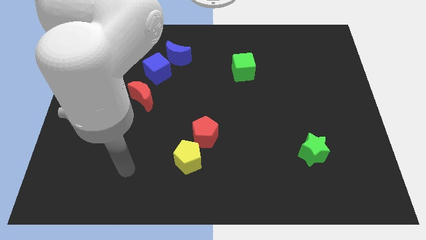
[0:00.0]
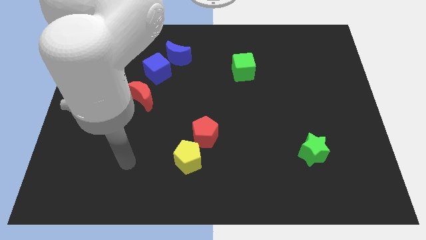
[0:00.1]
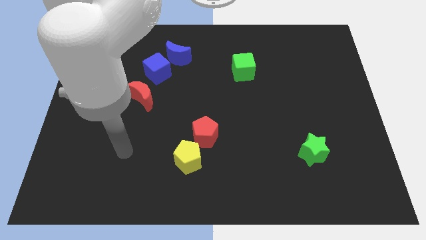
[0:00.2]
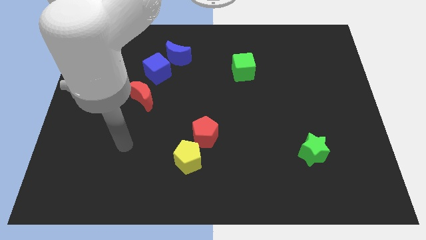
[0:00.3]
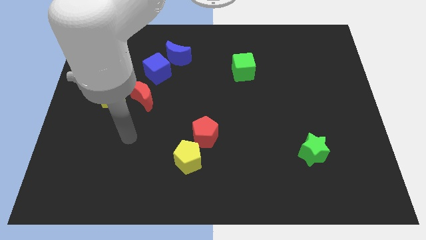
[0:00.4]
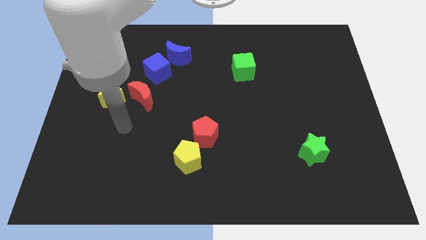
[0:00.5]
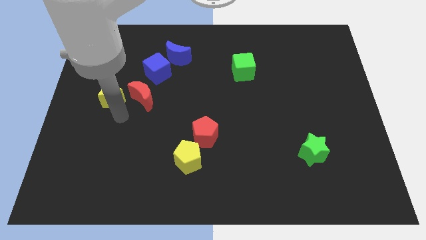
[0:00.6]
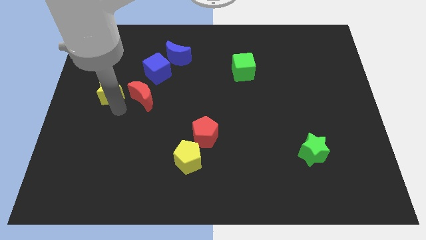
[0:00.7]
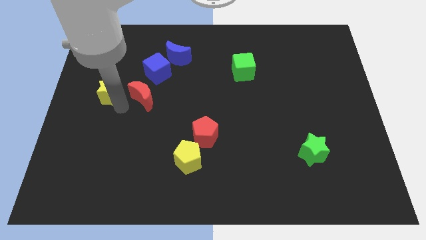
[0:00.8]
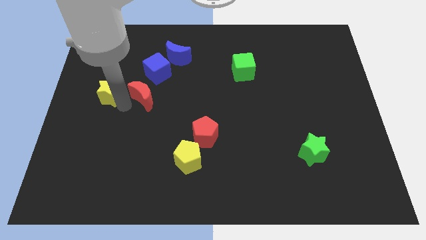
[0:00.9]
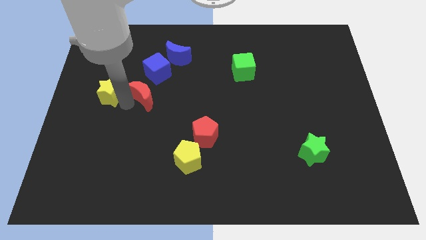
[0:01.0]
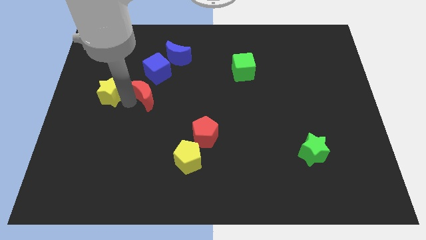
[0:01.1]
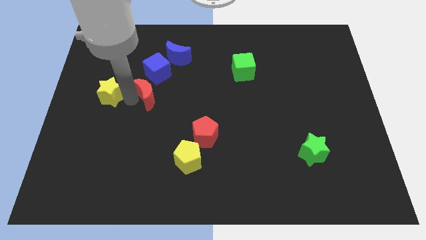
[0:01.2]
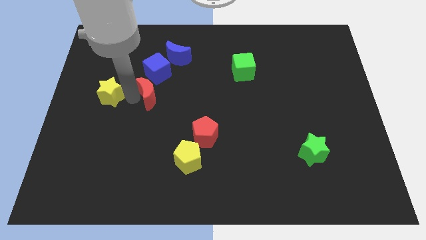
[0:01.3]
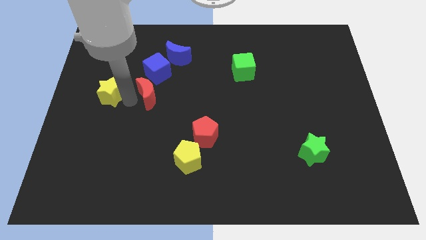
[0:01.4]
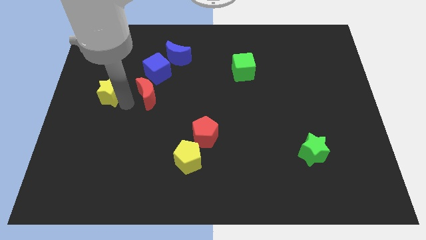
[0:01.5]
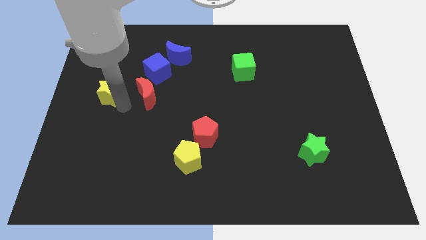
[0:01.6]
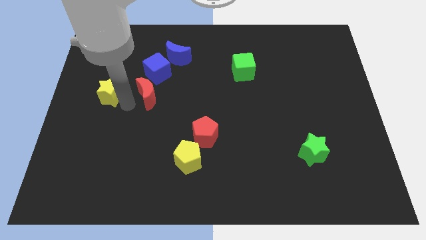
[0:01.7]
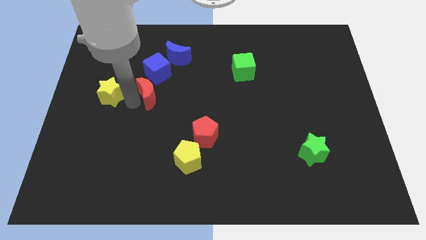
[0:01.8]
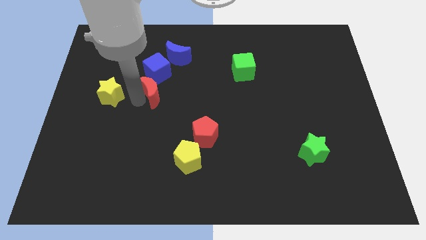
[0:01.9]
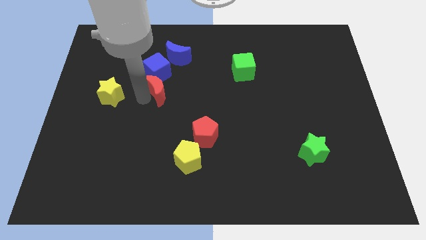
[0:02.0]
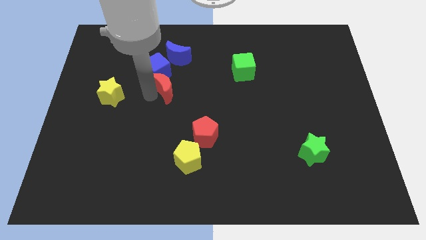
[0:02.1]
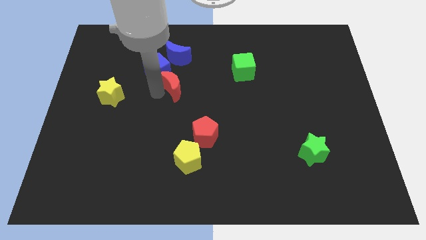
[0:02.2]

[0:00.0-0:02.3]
move the red moon somewhat diagonally up and right

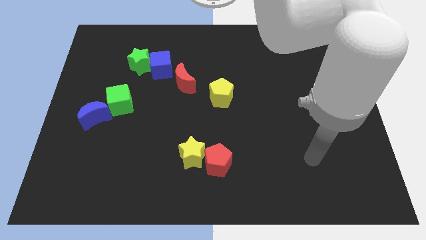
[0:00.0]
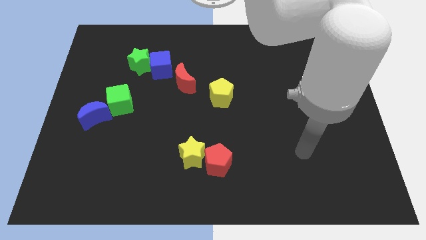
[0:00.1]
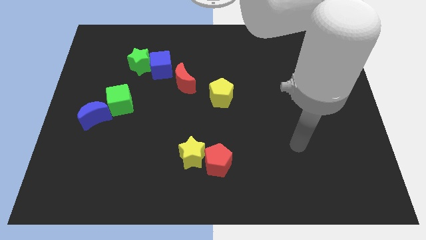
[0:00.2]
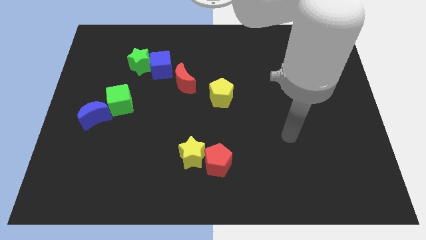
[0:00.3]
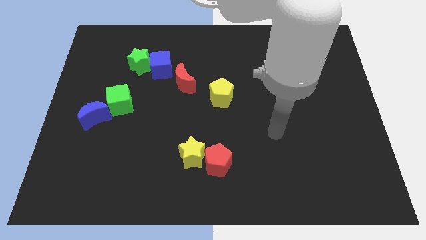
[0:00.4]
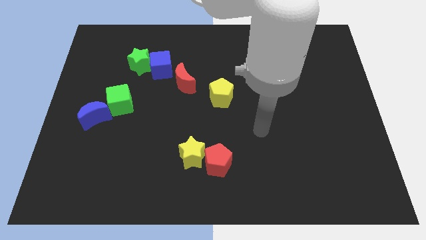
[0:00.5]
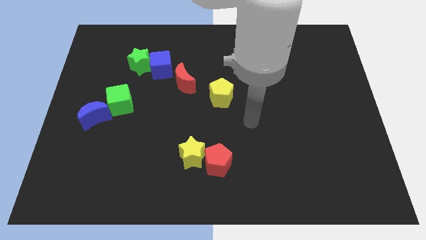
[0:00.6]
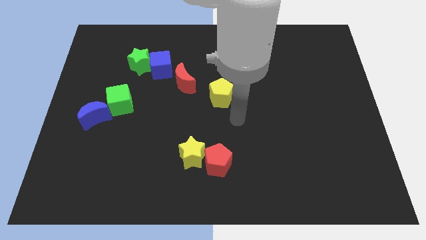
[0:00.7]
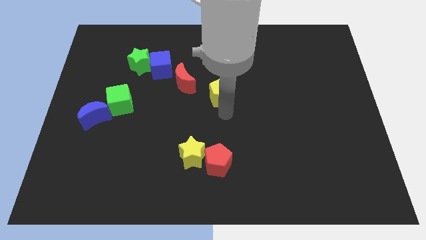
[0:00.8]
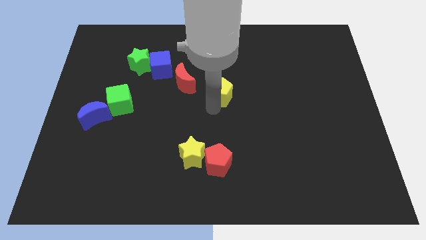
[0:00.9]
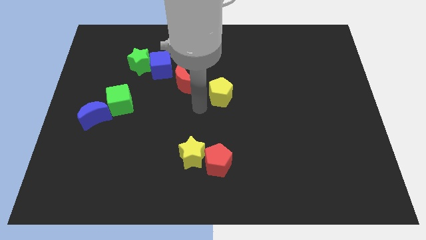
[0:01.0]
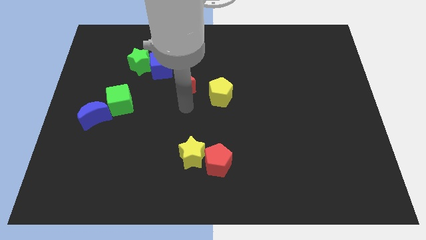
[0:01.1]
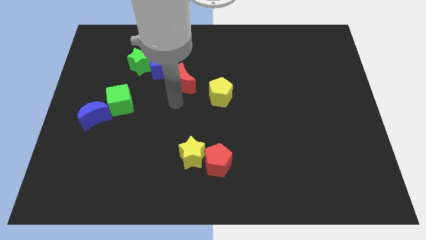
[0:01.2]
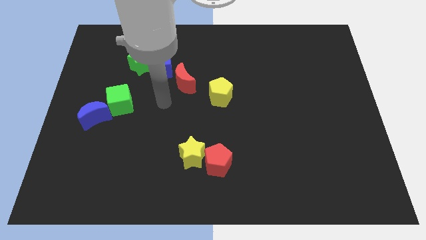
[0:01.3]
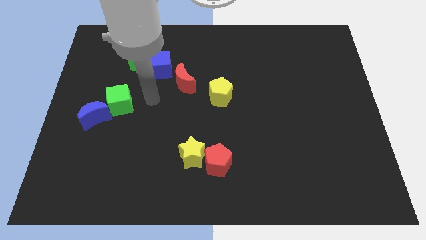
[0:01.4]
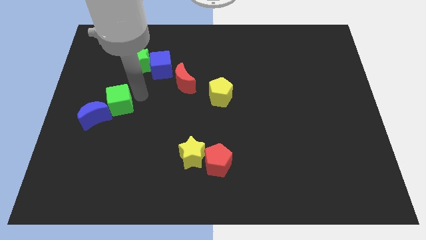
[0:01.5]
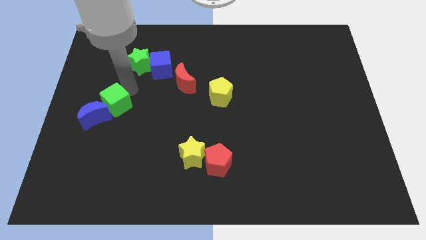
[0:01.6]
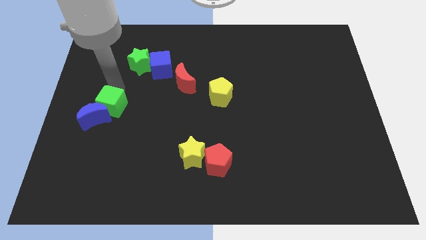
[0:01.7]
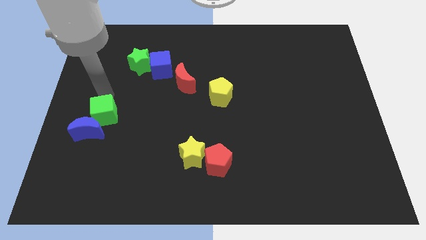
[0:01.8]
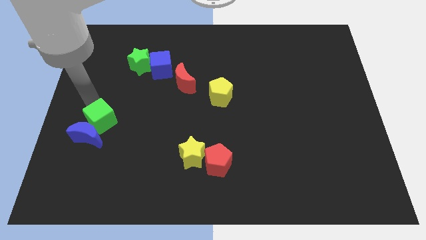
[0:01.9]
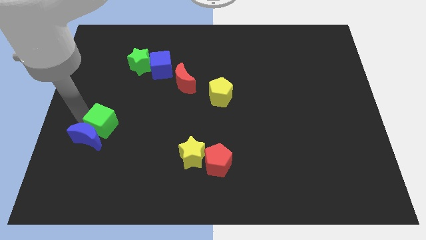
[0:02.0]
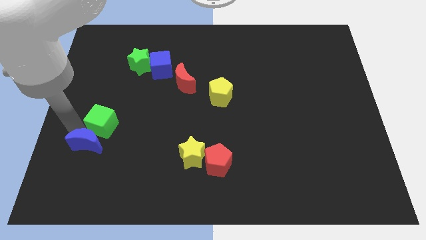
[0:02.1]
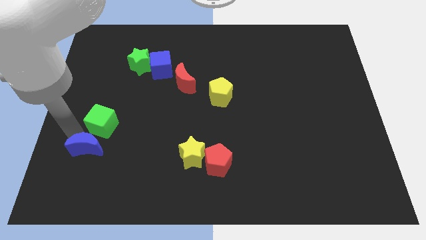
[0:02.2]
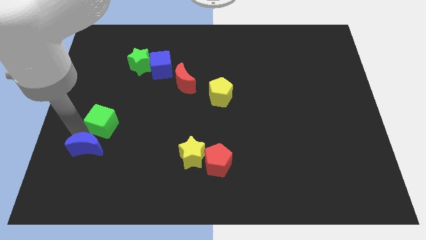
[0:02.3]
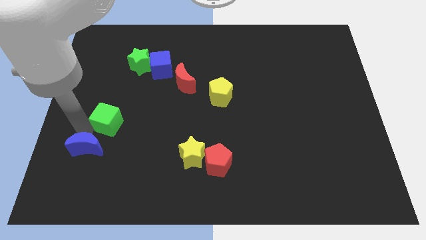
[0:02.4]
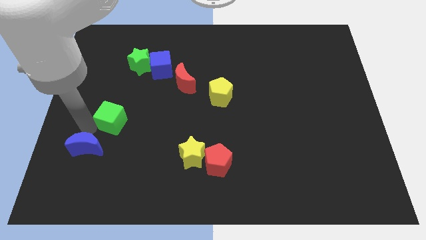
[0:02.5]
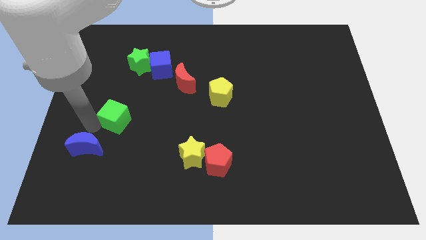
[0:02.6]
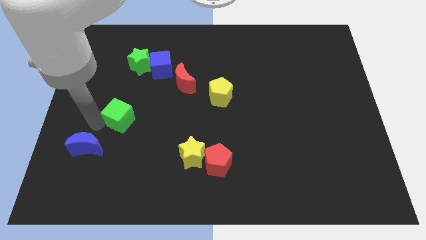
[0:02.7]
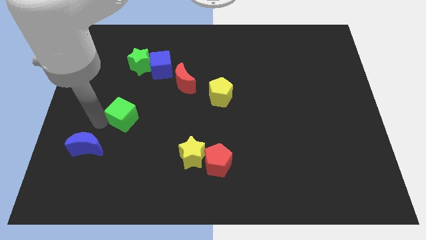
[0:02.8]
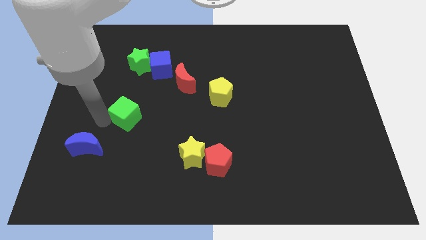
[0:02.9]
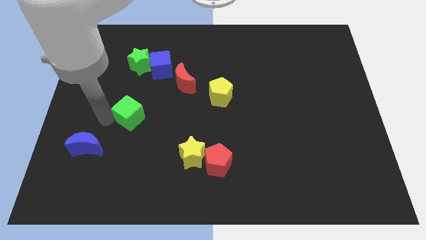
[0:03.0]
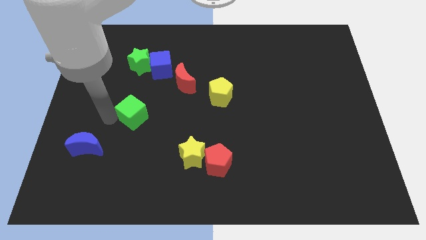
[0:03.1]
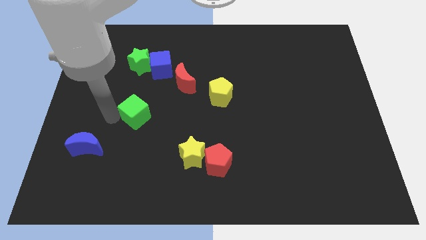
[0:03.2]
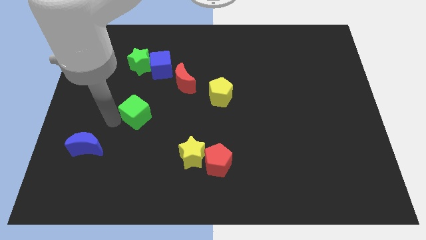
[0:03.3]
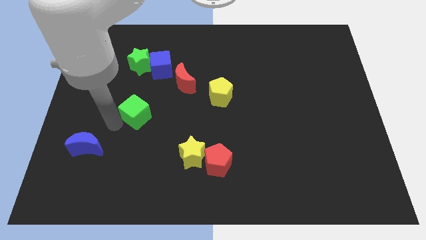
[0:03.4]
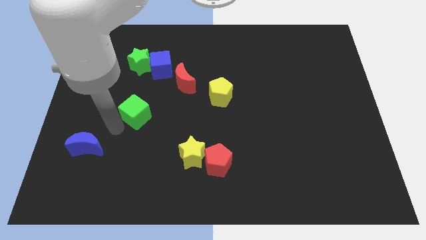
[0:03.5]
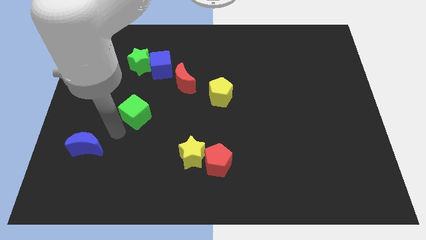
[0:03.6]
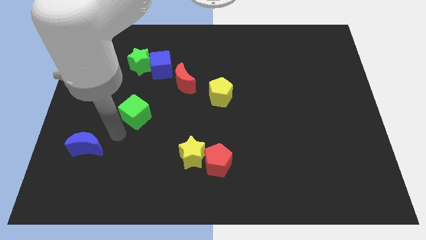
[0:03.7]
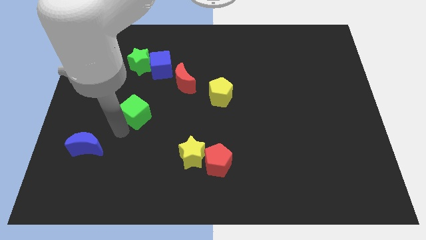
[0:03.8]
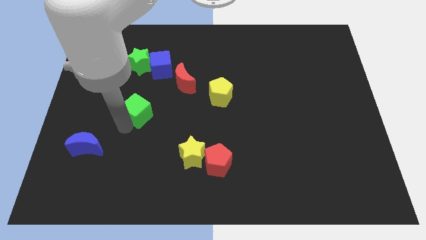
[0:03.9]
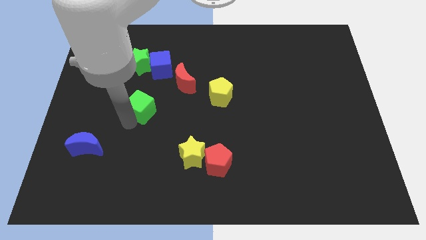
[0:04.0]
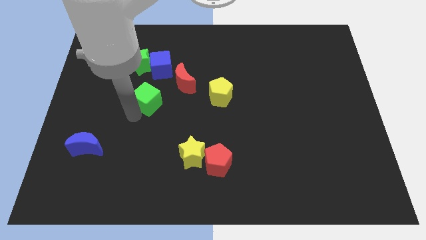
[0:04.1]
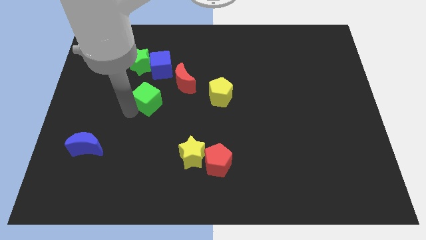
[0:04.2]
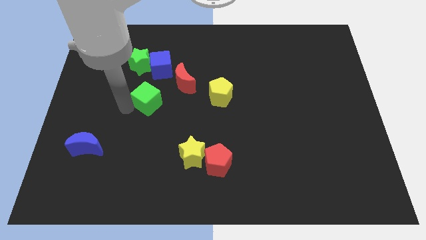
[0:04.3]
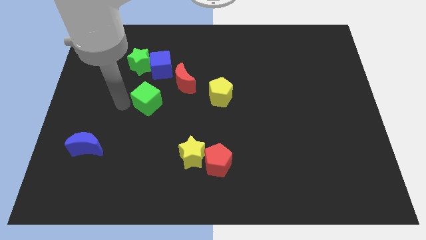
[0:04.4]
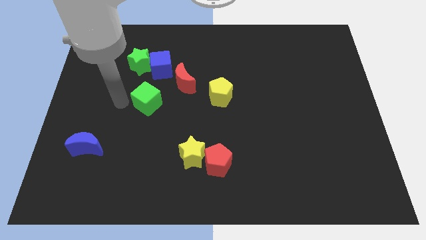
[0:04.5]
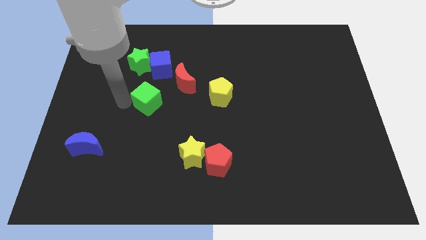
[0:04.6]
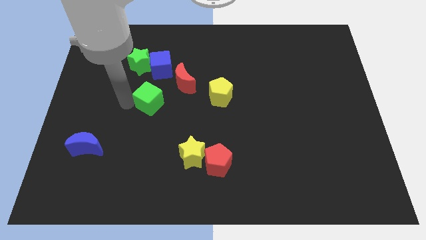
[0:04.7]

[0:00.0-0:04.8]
move the green cube to the right a bit

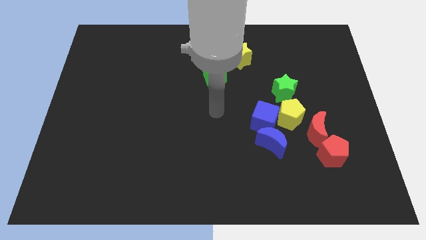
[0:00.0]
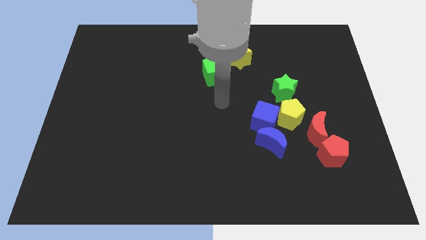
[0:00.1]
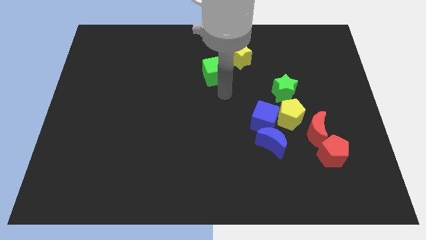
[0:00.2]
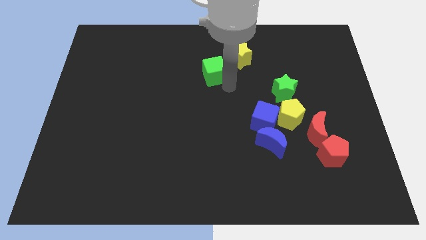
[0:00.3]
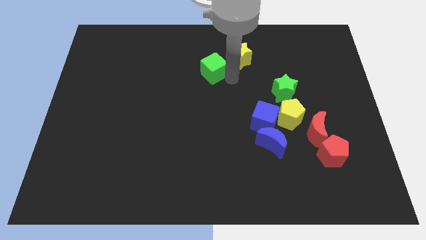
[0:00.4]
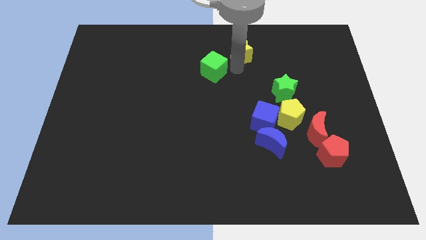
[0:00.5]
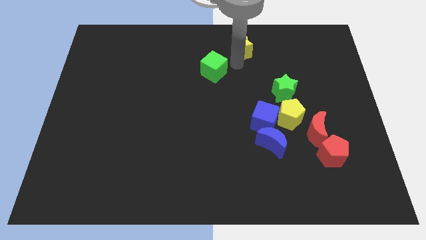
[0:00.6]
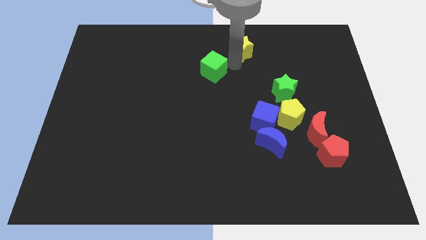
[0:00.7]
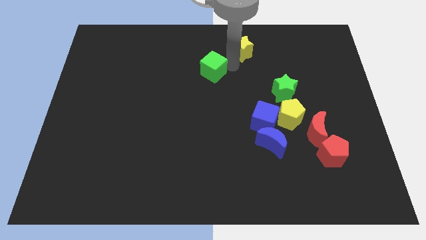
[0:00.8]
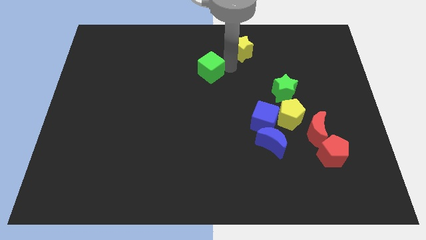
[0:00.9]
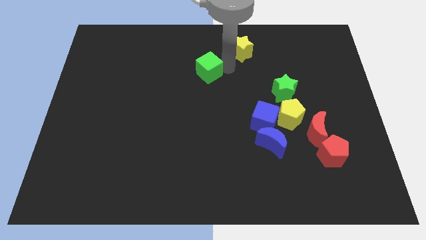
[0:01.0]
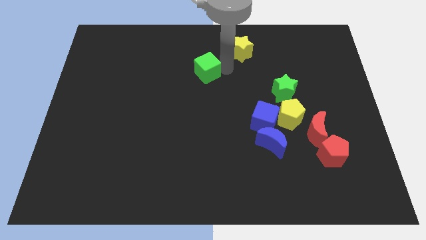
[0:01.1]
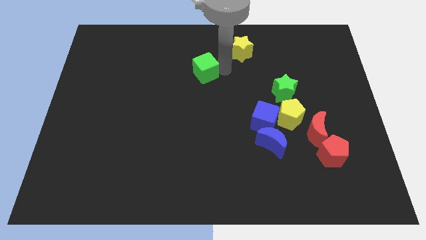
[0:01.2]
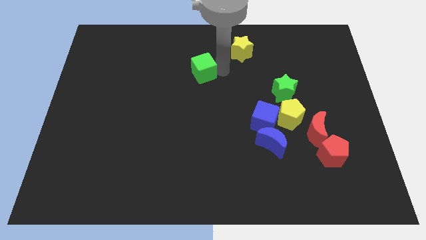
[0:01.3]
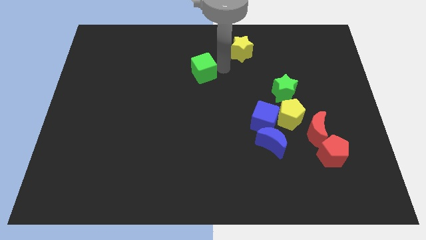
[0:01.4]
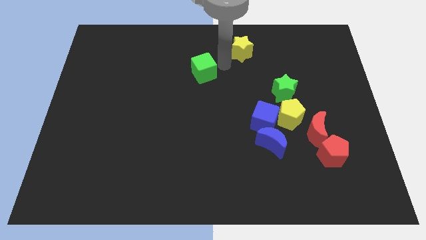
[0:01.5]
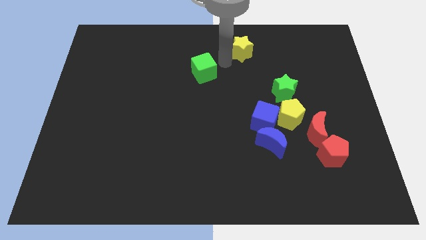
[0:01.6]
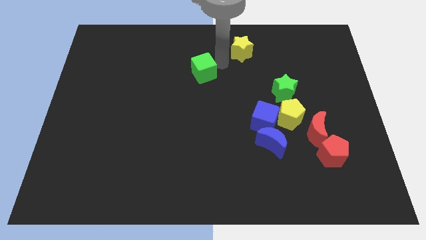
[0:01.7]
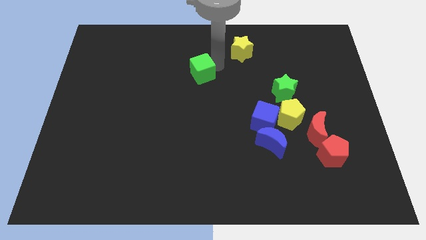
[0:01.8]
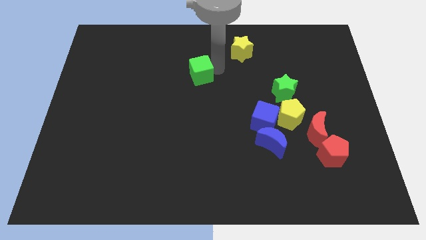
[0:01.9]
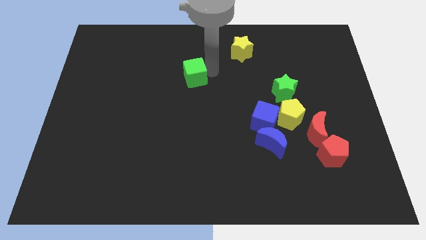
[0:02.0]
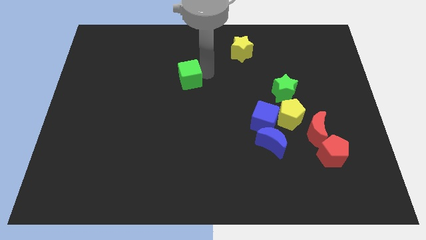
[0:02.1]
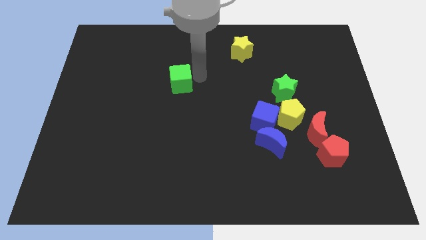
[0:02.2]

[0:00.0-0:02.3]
move the green cube a bit left
